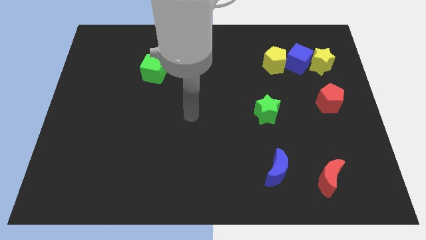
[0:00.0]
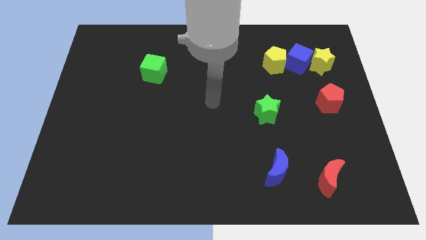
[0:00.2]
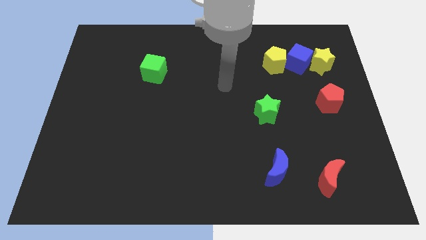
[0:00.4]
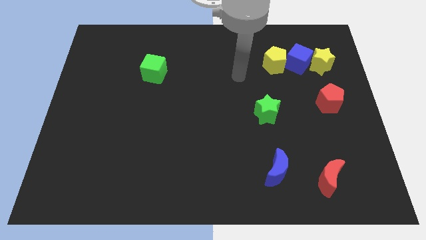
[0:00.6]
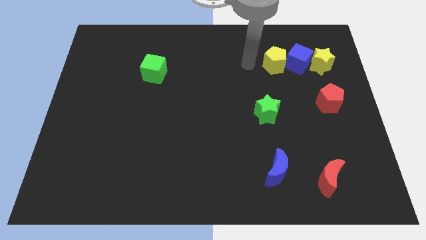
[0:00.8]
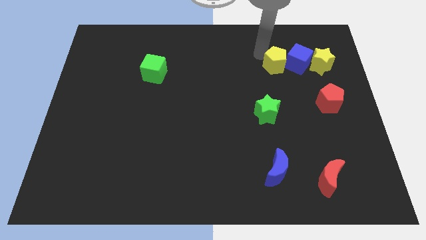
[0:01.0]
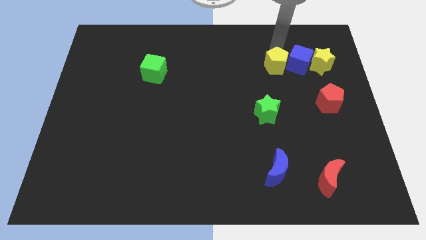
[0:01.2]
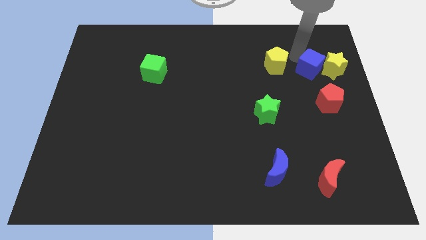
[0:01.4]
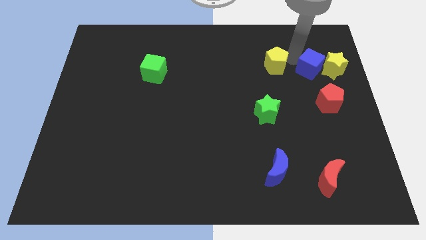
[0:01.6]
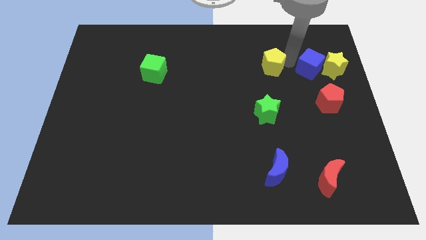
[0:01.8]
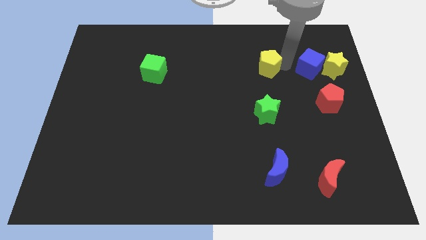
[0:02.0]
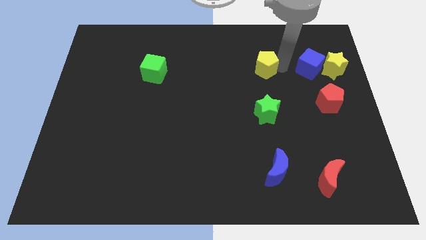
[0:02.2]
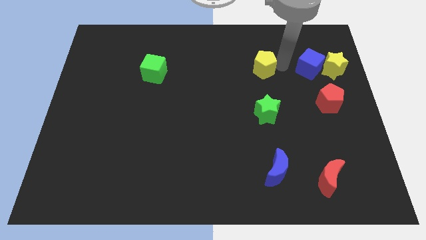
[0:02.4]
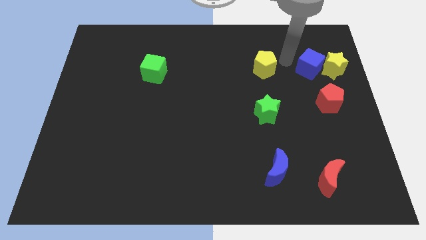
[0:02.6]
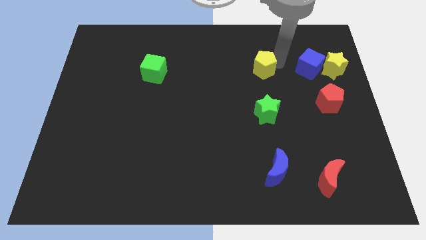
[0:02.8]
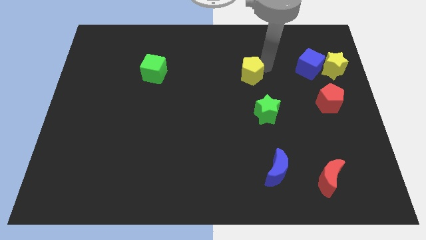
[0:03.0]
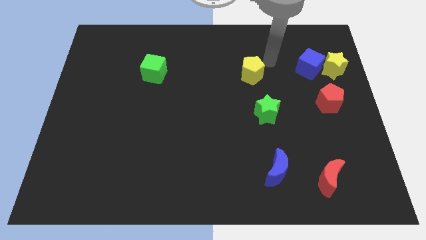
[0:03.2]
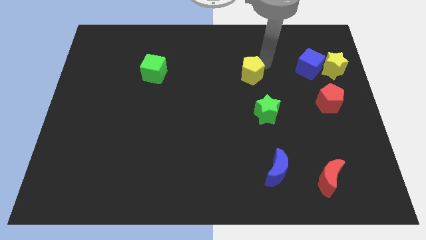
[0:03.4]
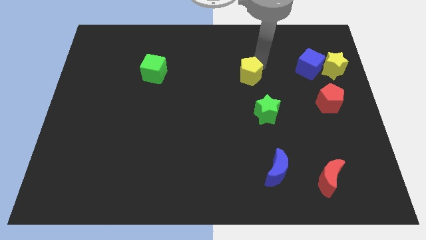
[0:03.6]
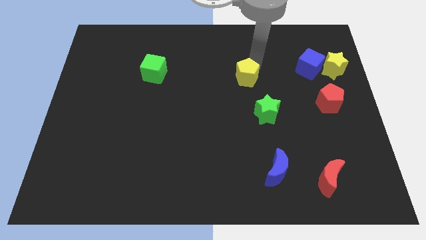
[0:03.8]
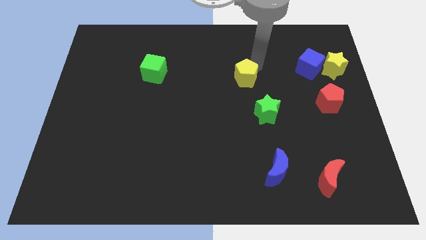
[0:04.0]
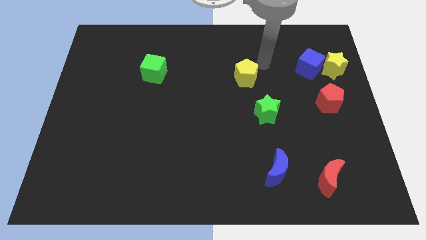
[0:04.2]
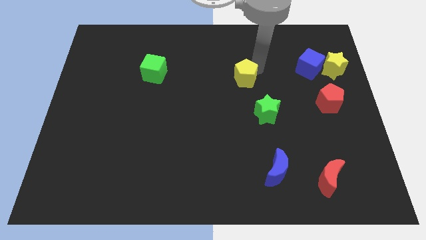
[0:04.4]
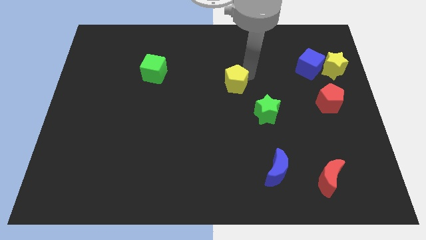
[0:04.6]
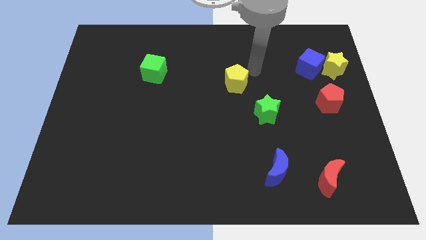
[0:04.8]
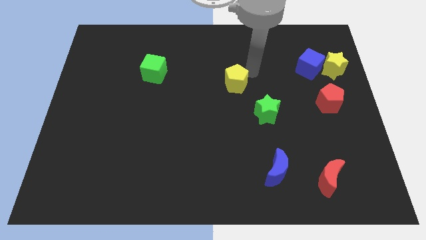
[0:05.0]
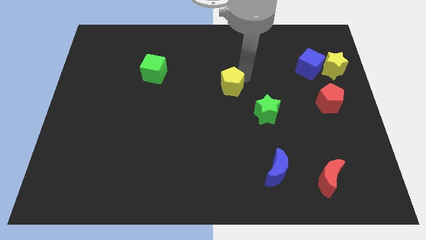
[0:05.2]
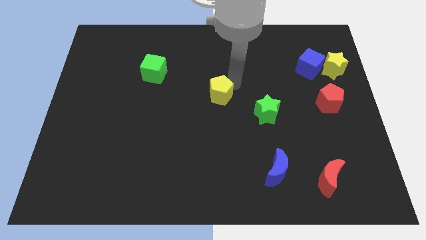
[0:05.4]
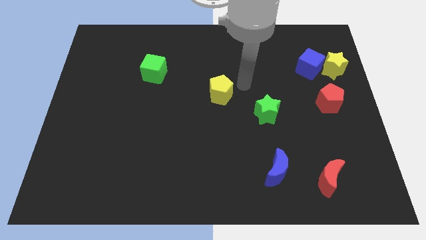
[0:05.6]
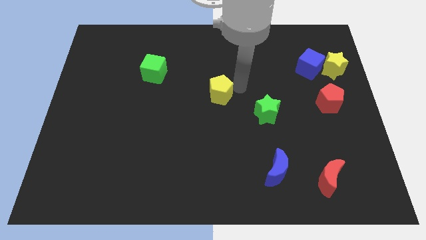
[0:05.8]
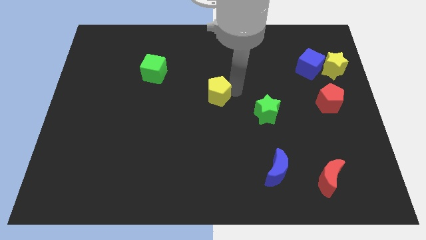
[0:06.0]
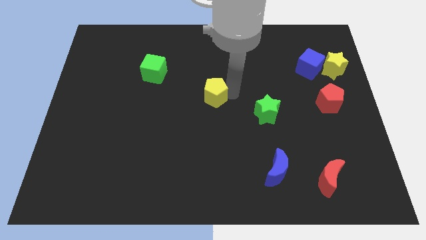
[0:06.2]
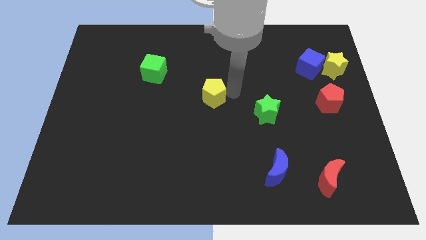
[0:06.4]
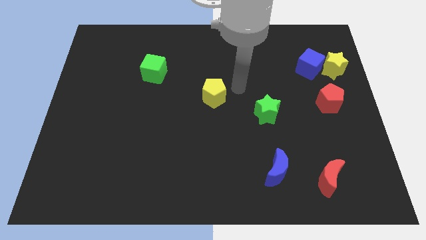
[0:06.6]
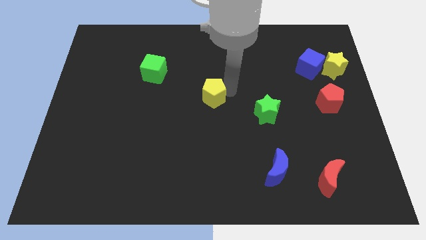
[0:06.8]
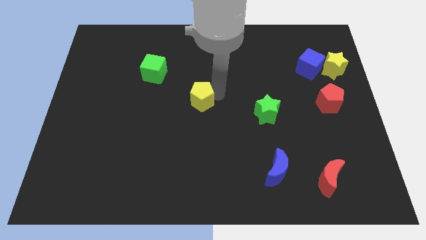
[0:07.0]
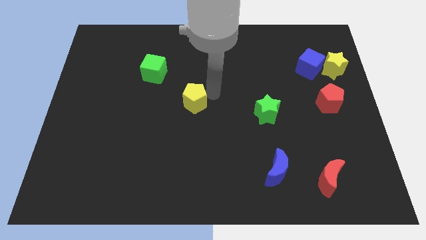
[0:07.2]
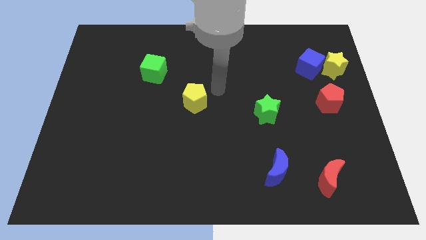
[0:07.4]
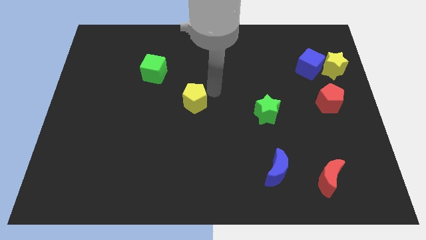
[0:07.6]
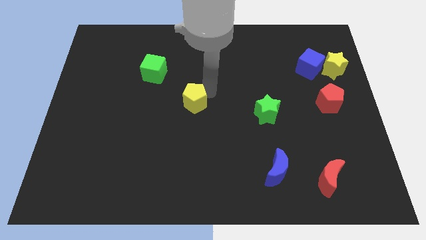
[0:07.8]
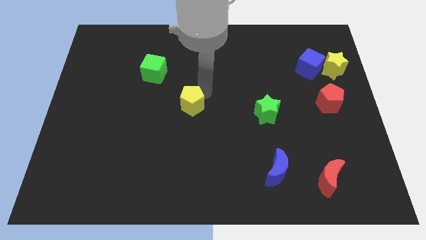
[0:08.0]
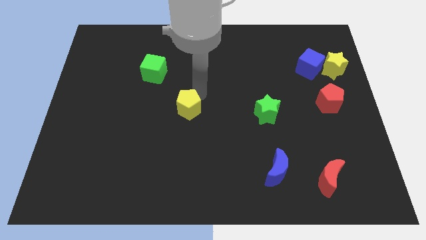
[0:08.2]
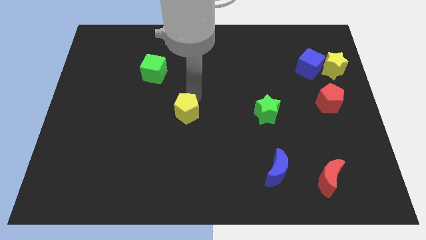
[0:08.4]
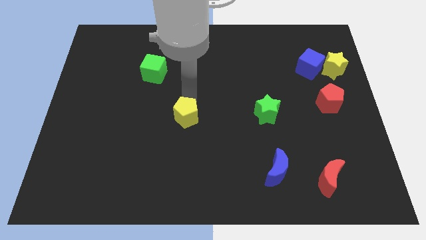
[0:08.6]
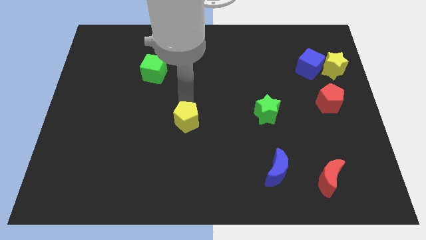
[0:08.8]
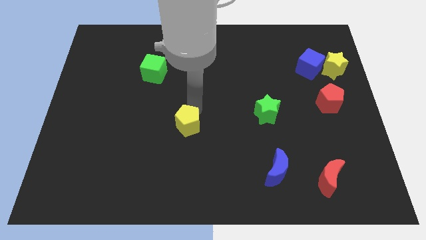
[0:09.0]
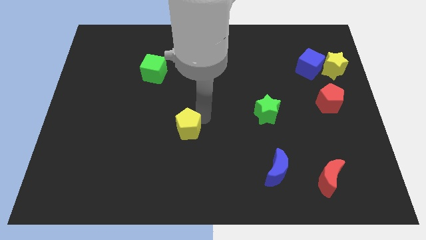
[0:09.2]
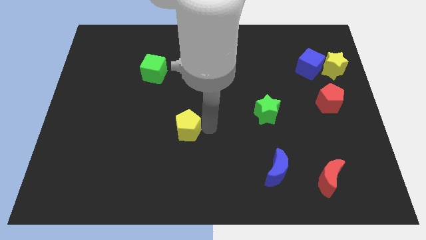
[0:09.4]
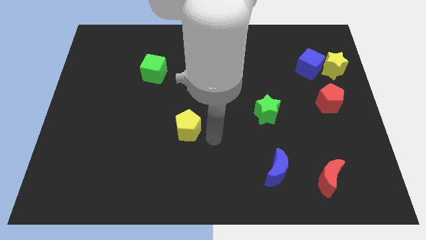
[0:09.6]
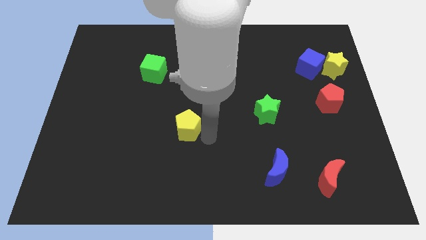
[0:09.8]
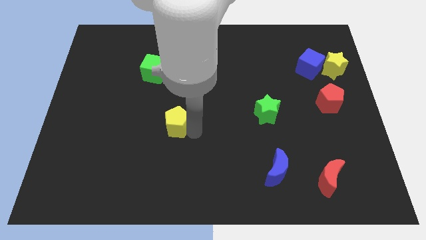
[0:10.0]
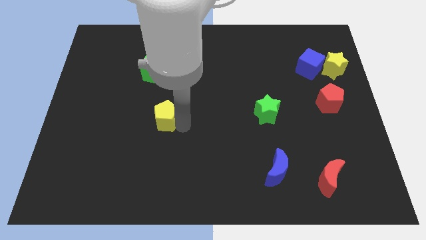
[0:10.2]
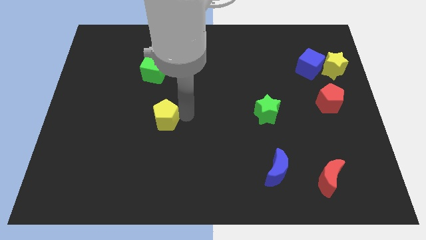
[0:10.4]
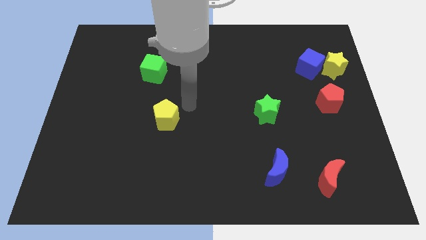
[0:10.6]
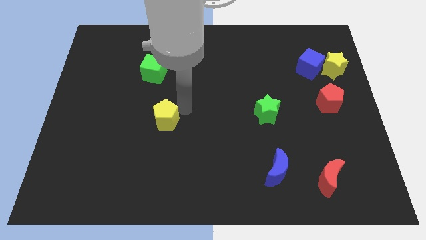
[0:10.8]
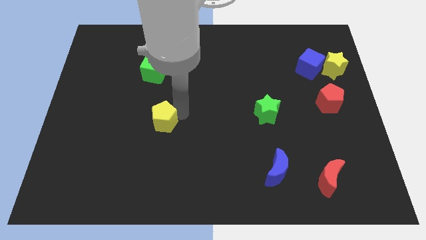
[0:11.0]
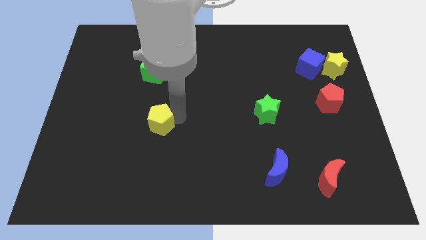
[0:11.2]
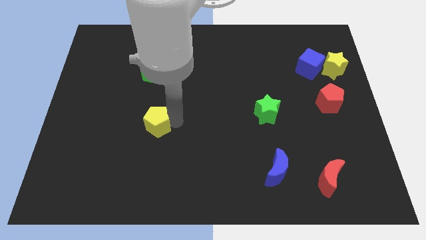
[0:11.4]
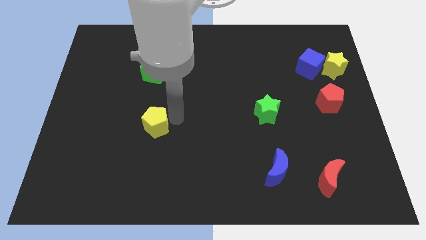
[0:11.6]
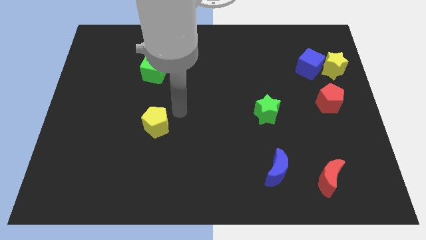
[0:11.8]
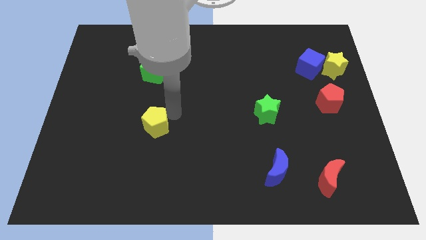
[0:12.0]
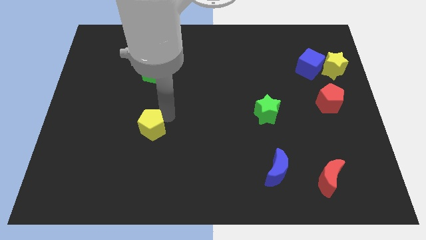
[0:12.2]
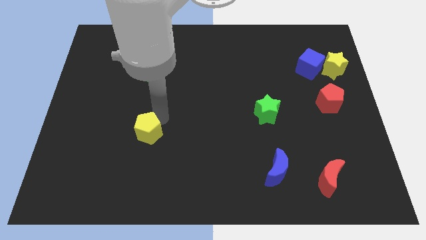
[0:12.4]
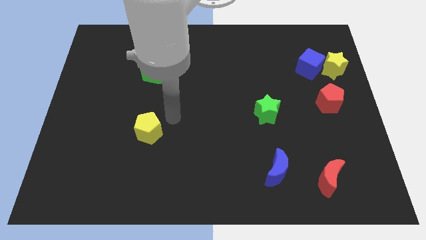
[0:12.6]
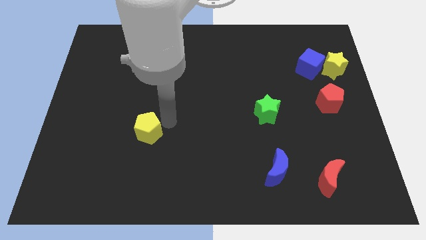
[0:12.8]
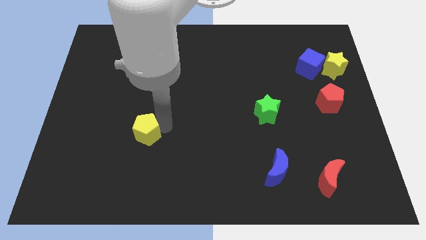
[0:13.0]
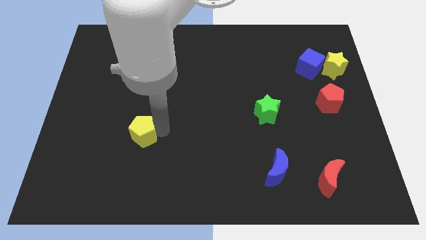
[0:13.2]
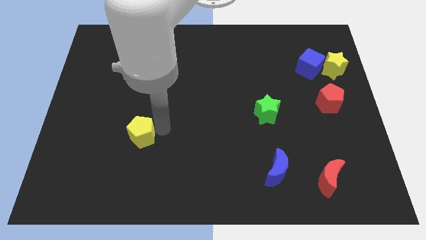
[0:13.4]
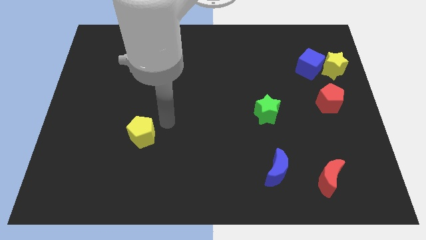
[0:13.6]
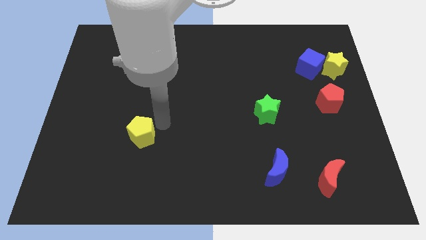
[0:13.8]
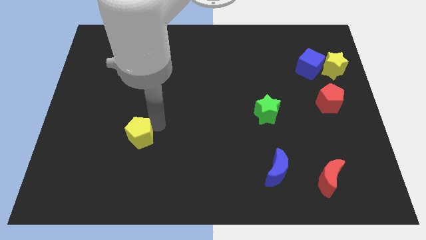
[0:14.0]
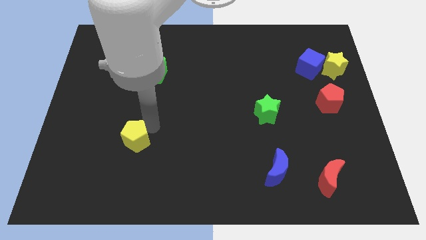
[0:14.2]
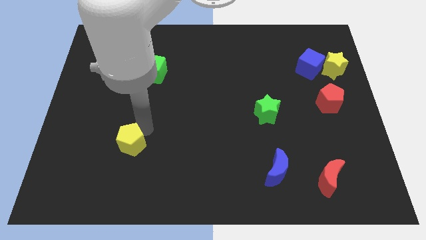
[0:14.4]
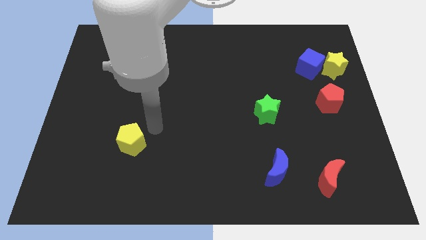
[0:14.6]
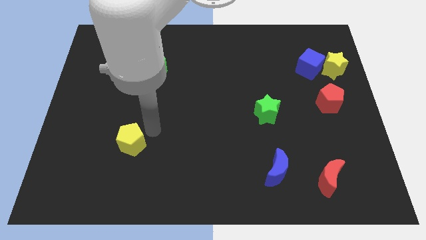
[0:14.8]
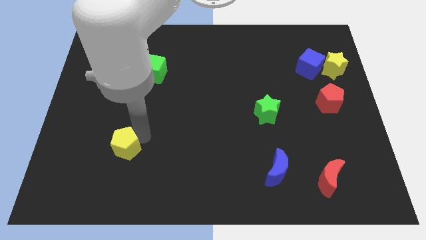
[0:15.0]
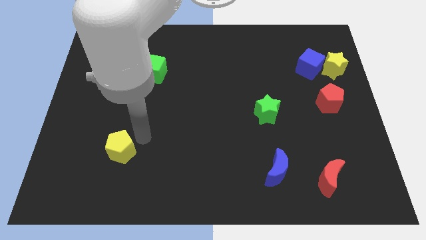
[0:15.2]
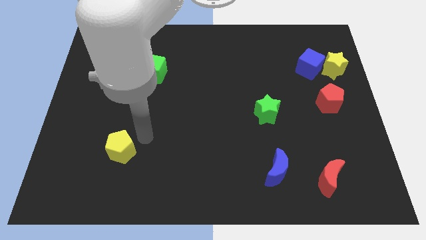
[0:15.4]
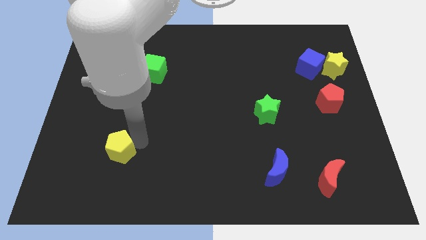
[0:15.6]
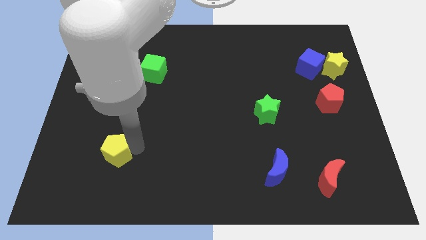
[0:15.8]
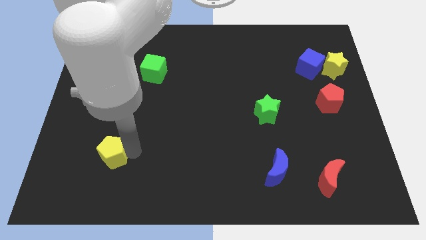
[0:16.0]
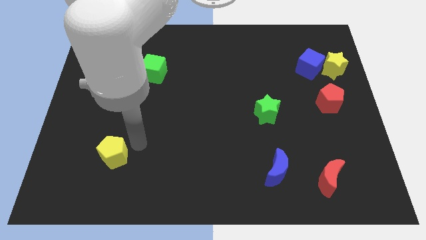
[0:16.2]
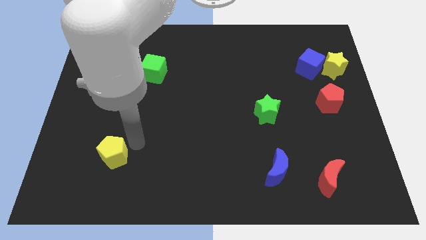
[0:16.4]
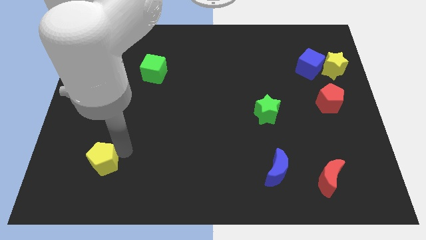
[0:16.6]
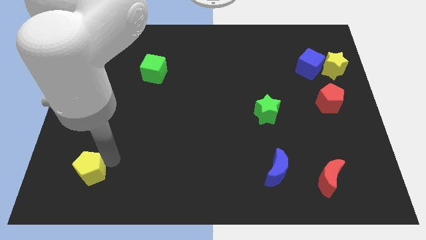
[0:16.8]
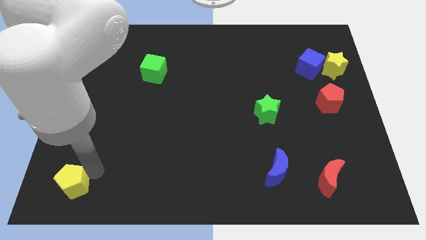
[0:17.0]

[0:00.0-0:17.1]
move the yellow pentagon to the bottom left corner
